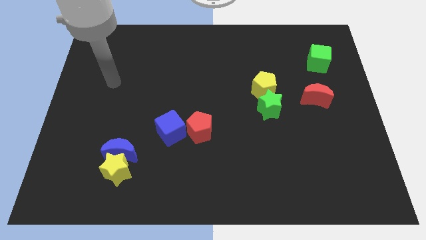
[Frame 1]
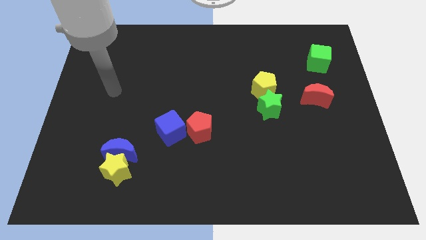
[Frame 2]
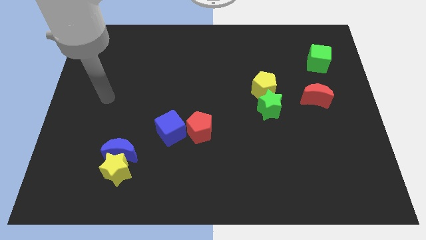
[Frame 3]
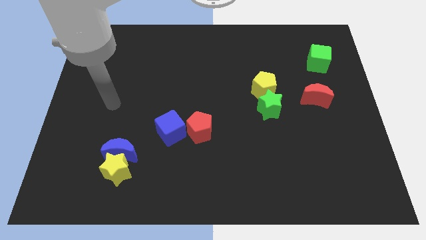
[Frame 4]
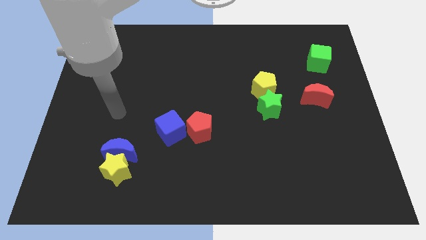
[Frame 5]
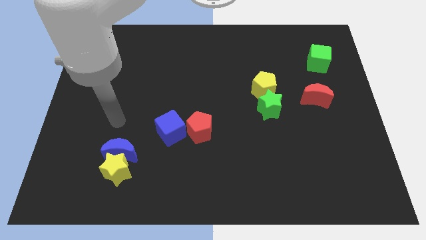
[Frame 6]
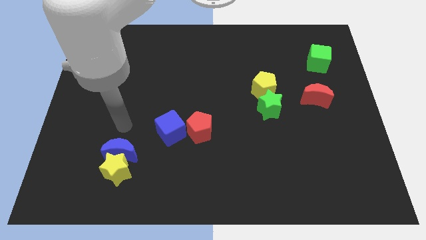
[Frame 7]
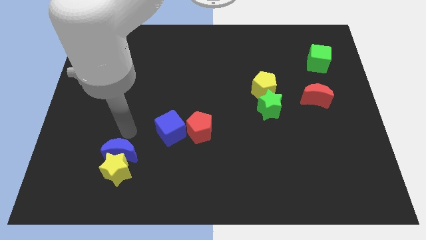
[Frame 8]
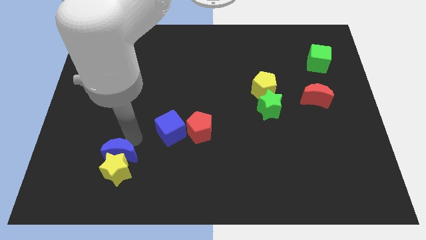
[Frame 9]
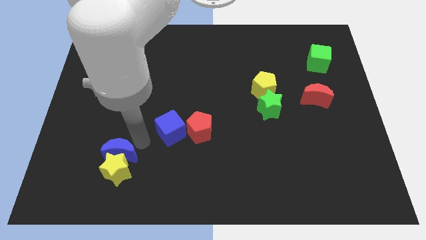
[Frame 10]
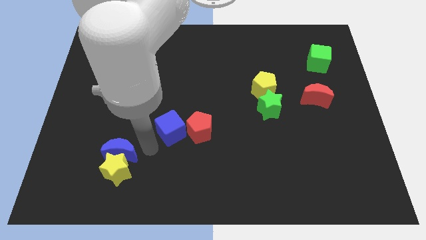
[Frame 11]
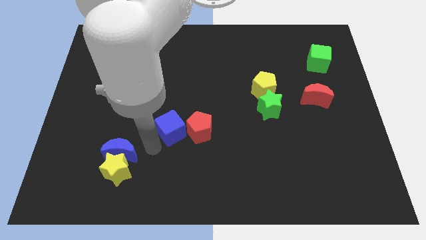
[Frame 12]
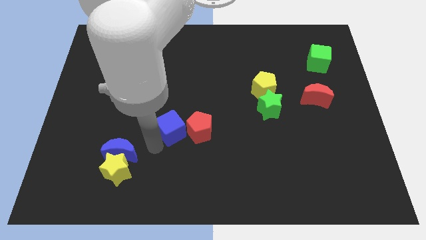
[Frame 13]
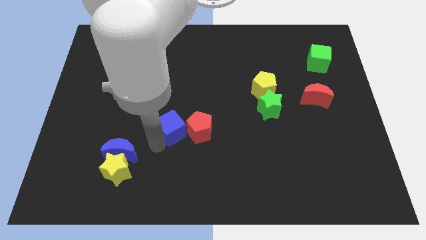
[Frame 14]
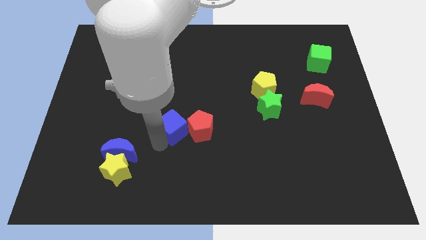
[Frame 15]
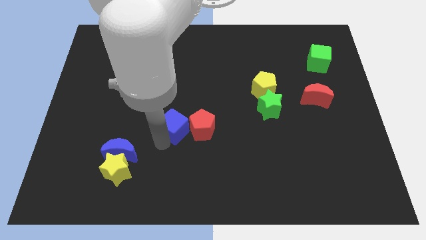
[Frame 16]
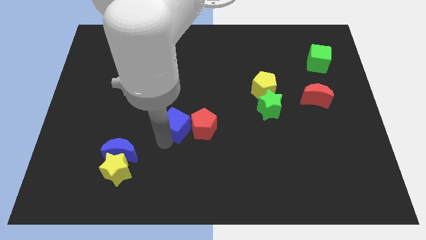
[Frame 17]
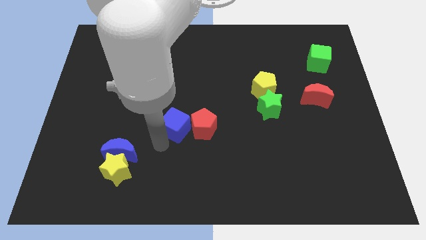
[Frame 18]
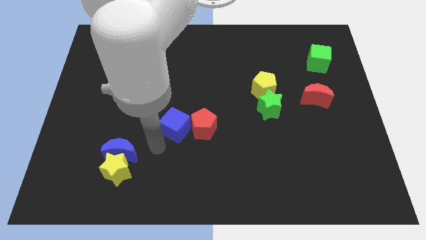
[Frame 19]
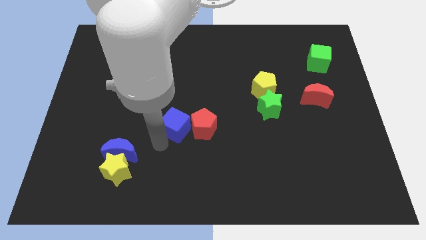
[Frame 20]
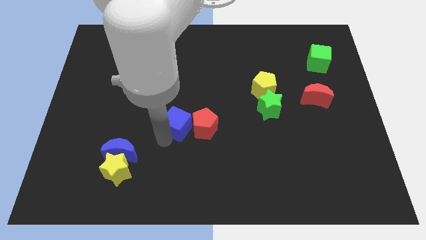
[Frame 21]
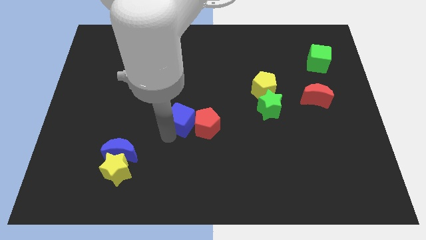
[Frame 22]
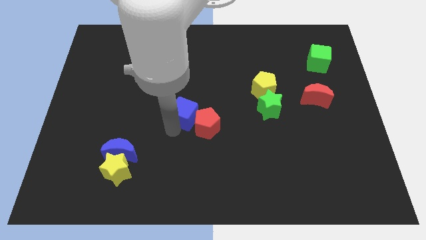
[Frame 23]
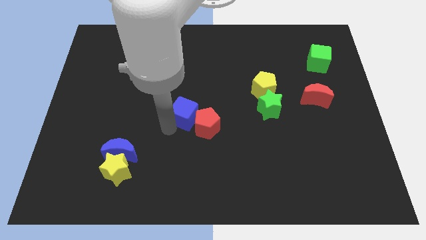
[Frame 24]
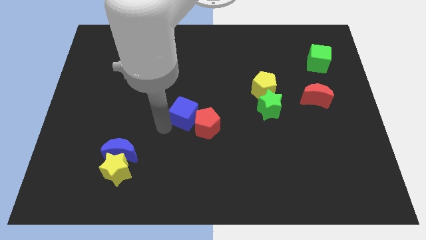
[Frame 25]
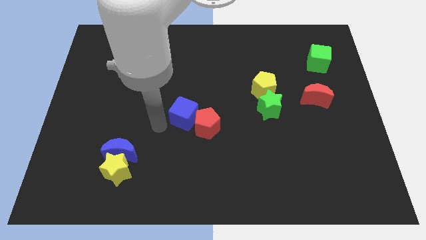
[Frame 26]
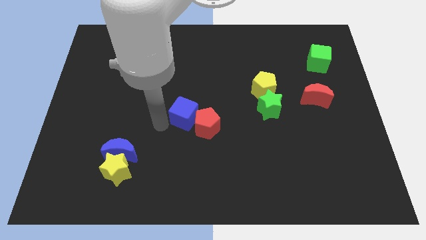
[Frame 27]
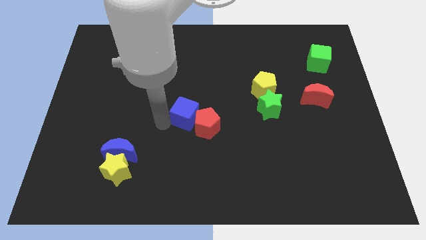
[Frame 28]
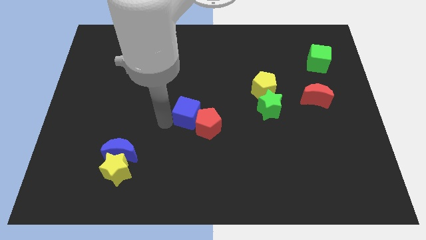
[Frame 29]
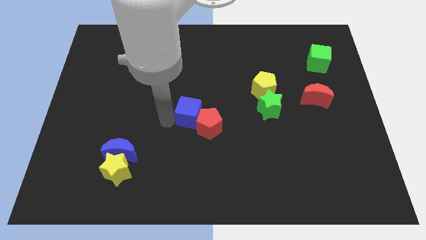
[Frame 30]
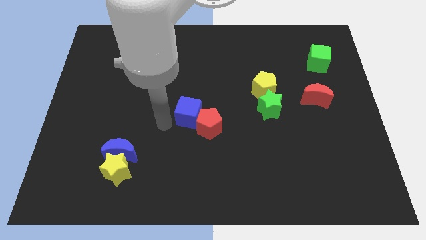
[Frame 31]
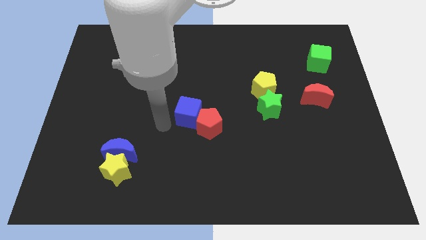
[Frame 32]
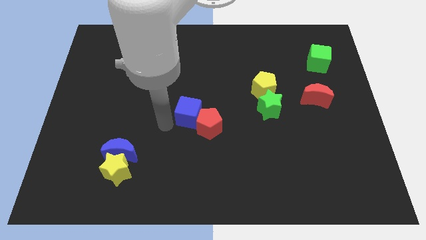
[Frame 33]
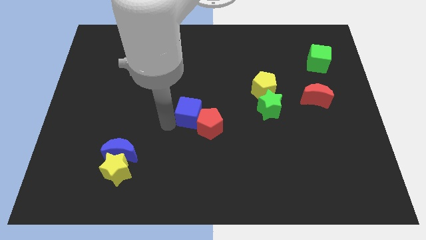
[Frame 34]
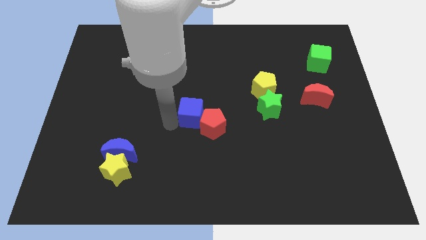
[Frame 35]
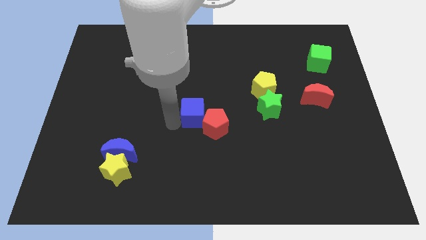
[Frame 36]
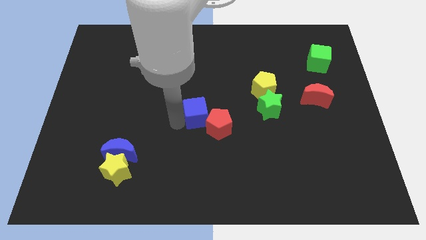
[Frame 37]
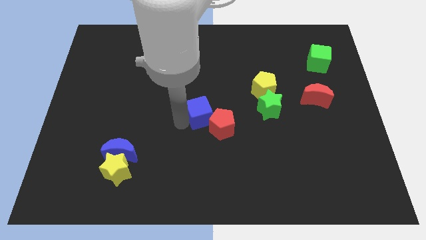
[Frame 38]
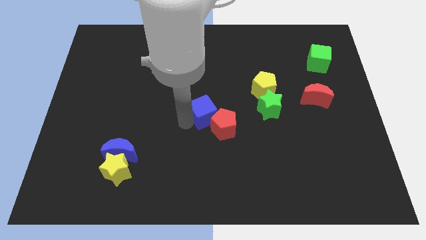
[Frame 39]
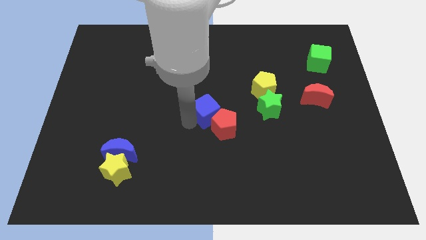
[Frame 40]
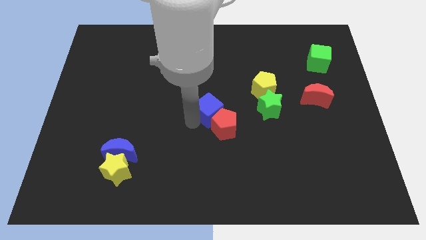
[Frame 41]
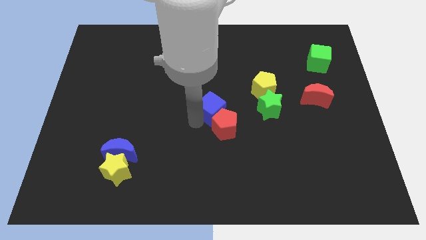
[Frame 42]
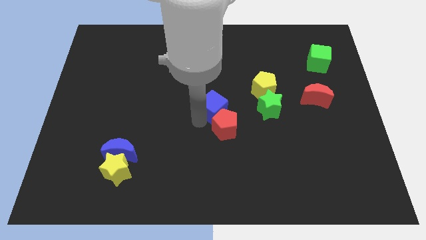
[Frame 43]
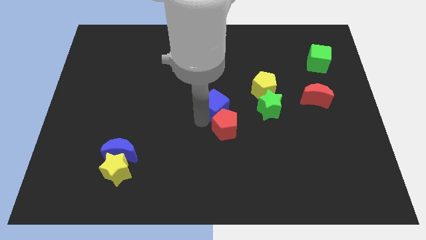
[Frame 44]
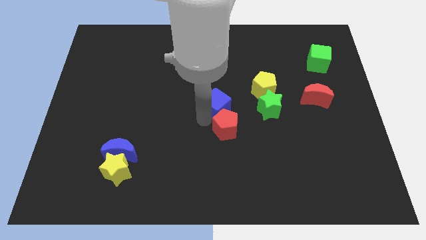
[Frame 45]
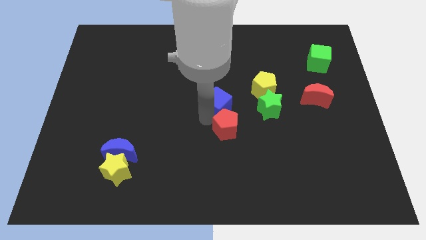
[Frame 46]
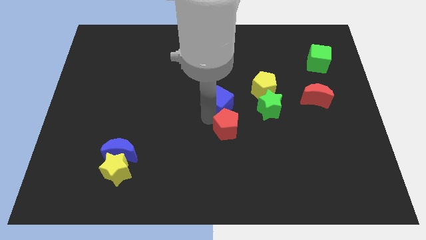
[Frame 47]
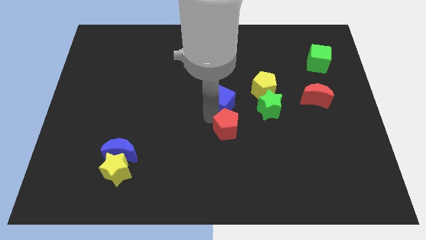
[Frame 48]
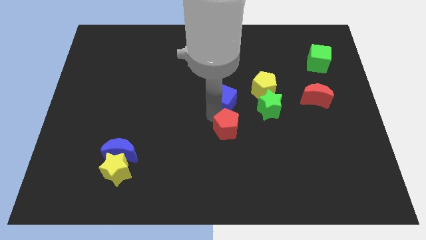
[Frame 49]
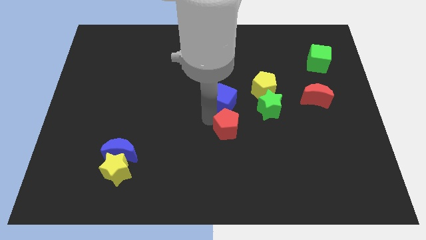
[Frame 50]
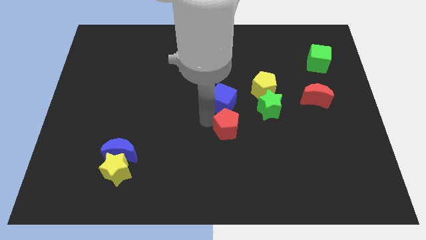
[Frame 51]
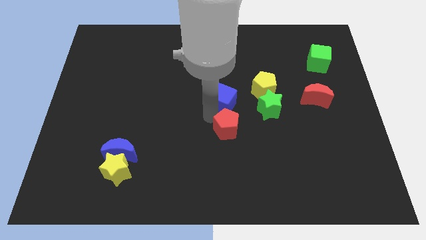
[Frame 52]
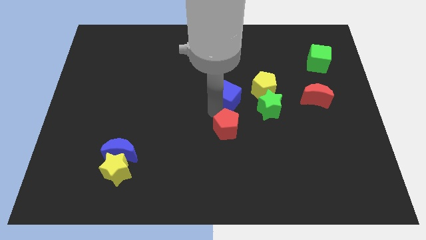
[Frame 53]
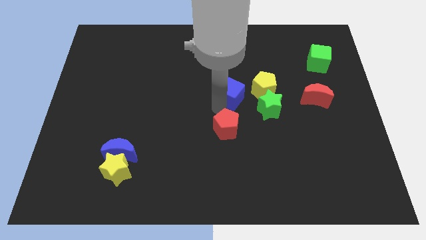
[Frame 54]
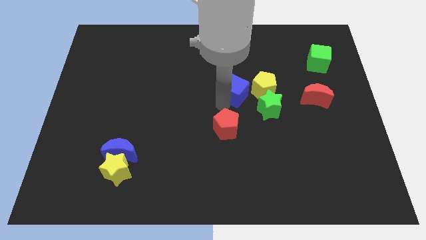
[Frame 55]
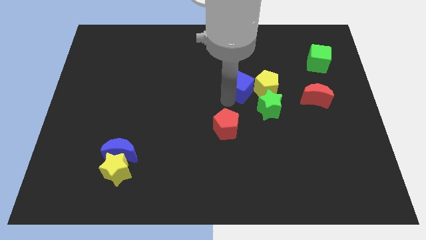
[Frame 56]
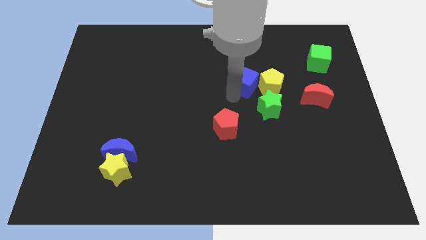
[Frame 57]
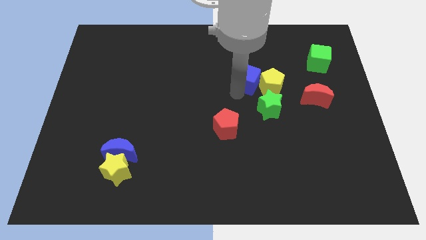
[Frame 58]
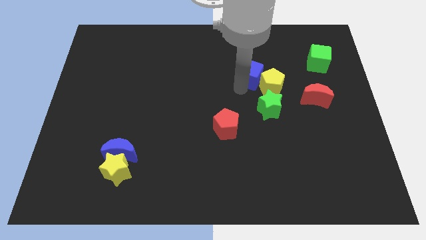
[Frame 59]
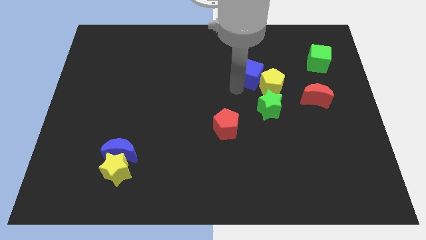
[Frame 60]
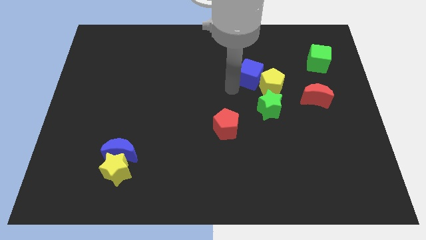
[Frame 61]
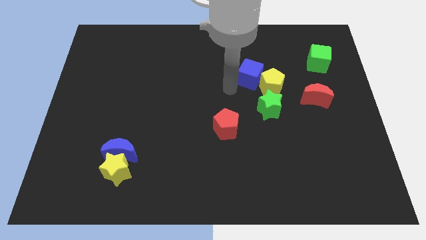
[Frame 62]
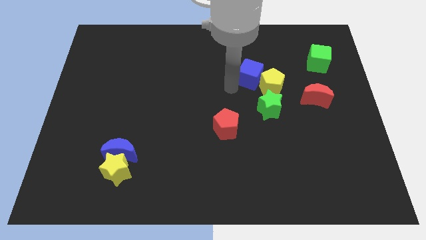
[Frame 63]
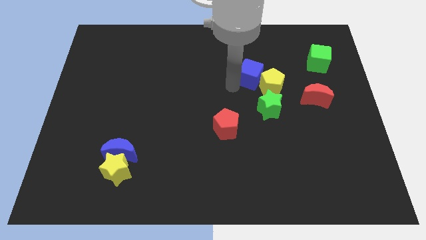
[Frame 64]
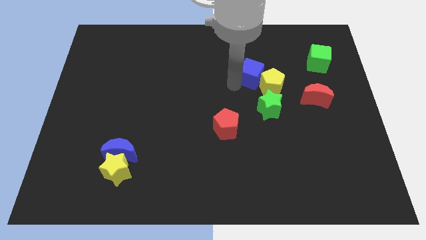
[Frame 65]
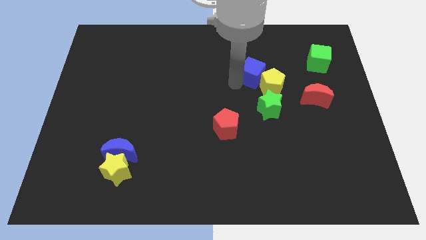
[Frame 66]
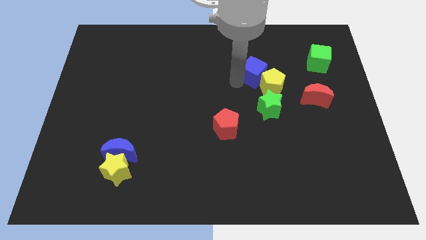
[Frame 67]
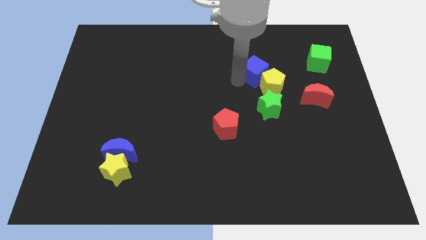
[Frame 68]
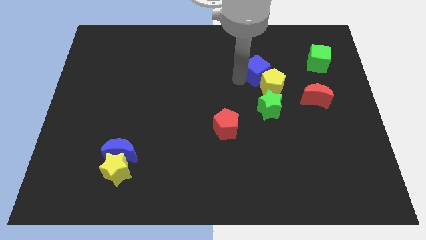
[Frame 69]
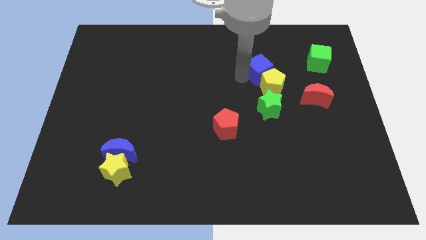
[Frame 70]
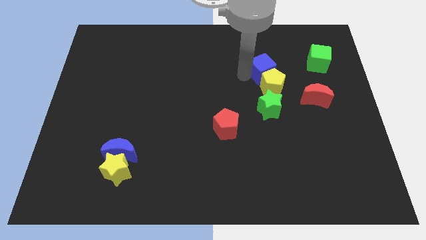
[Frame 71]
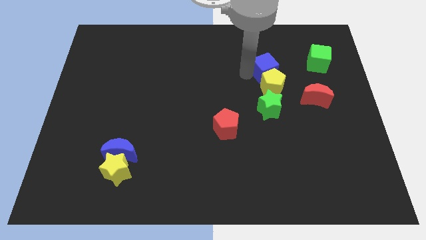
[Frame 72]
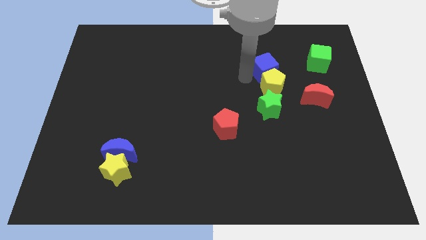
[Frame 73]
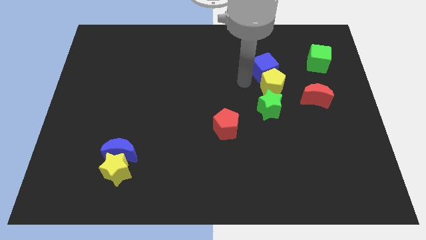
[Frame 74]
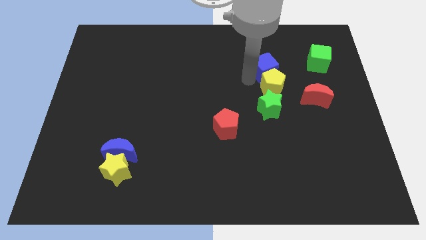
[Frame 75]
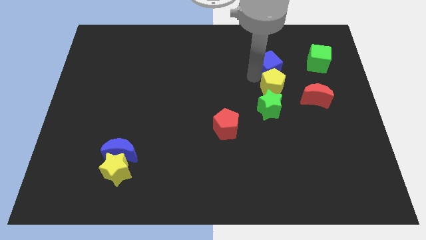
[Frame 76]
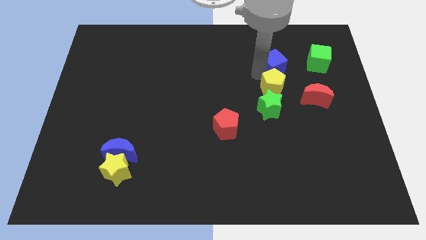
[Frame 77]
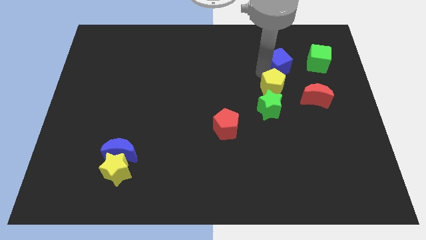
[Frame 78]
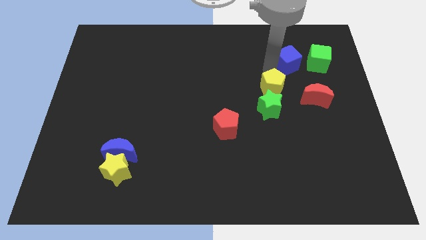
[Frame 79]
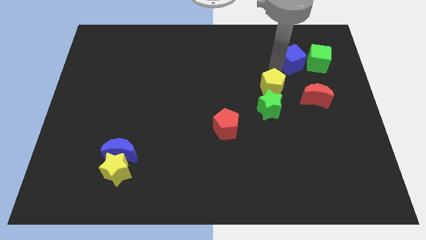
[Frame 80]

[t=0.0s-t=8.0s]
move the blue cube to the top side of the red moon

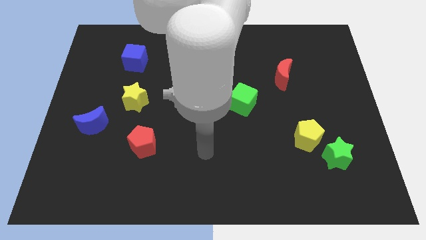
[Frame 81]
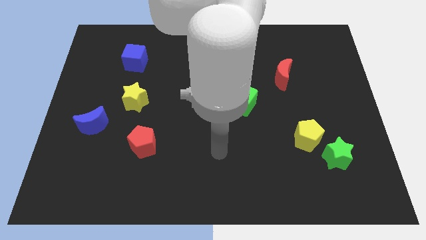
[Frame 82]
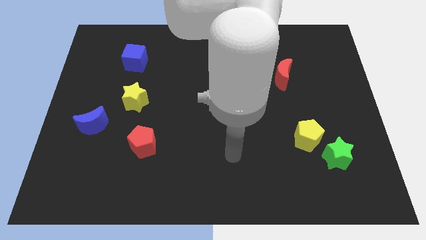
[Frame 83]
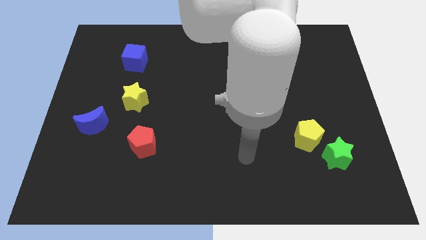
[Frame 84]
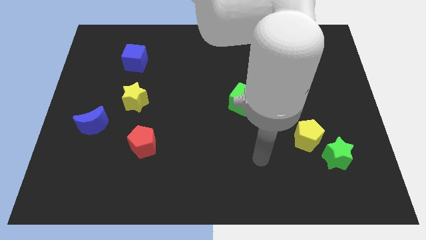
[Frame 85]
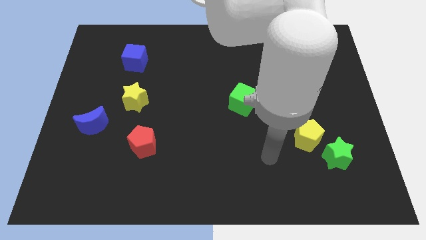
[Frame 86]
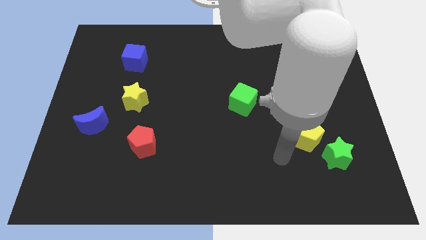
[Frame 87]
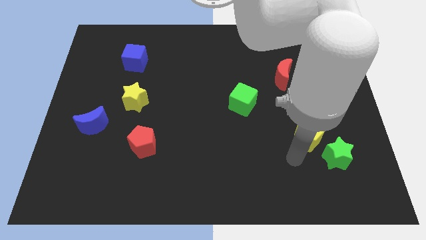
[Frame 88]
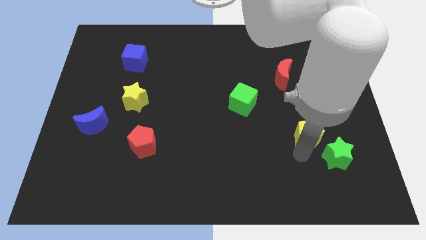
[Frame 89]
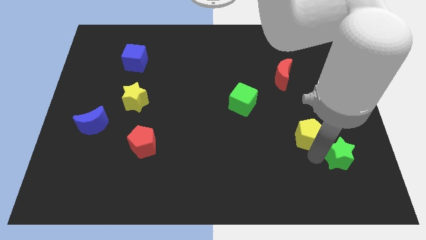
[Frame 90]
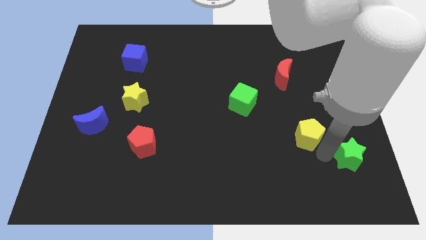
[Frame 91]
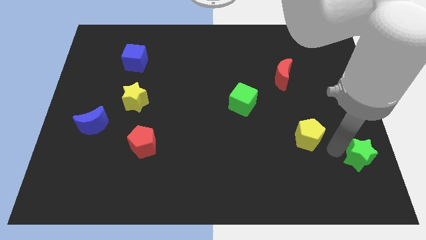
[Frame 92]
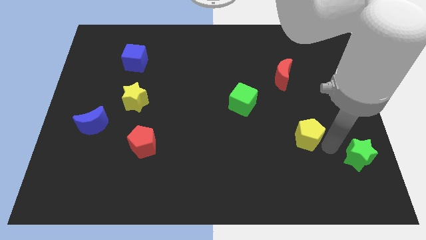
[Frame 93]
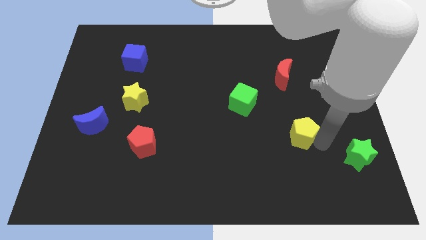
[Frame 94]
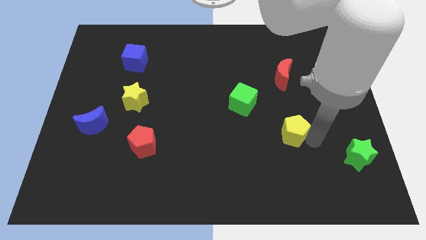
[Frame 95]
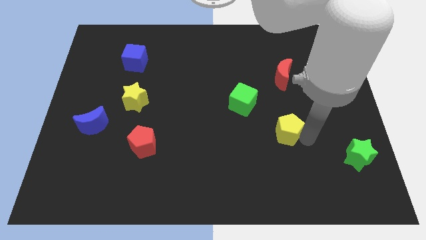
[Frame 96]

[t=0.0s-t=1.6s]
slide the yellow pentagon to the bottom right of the green cube
